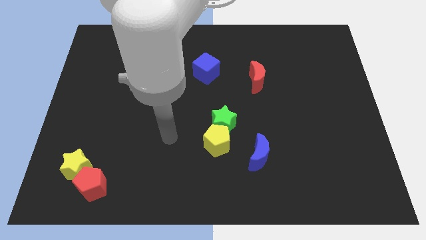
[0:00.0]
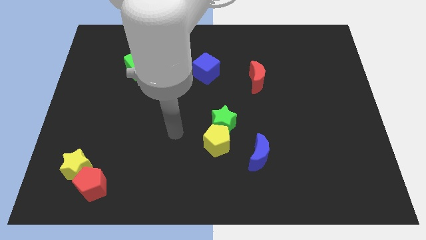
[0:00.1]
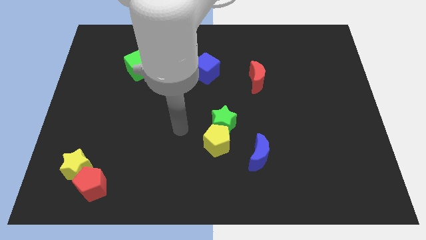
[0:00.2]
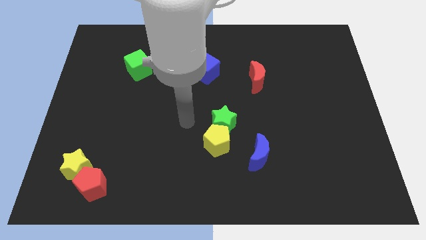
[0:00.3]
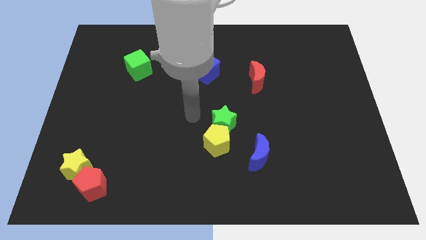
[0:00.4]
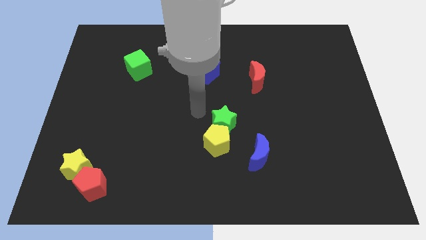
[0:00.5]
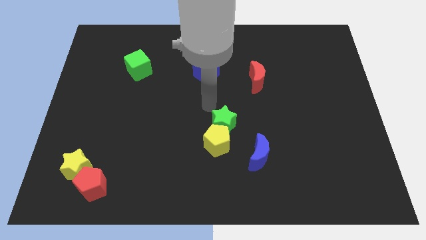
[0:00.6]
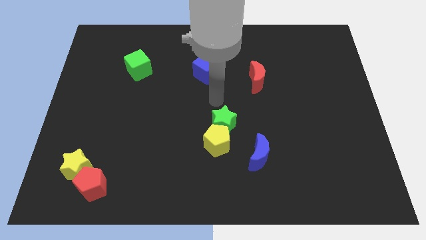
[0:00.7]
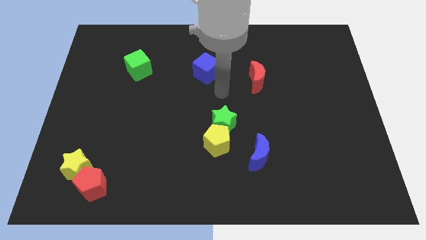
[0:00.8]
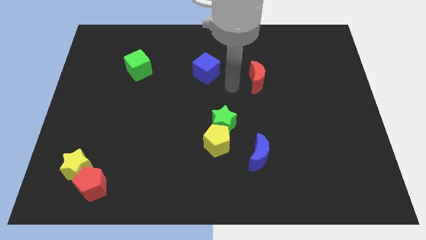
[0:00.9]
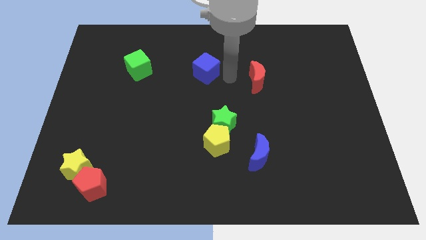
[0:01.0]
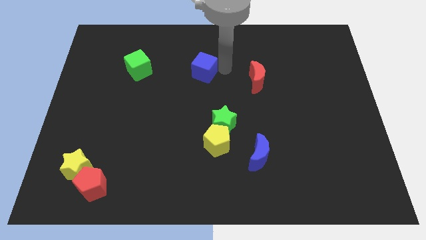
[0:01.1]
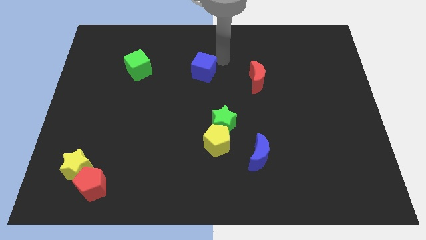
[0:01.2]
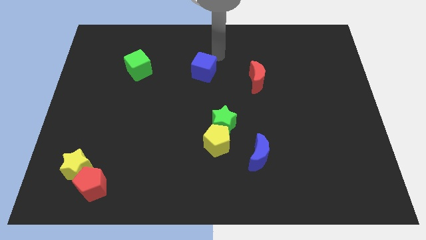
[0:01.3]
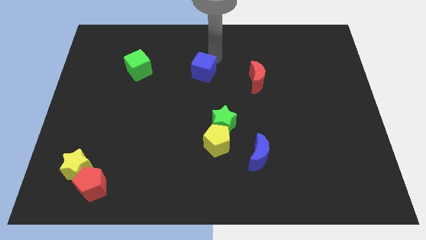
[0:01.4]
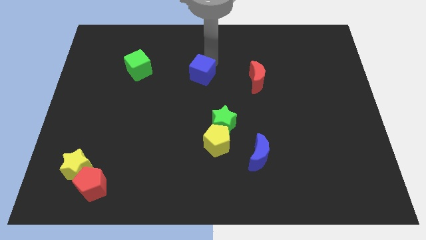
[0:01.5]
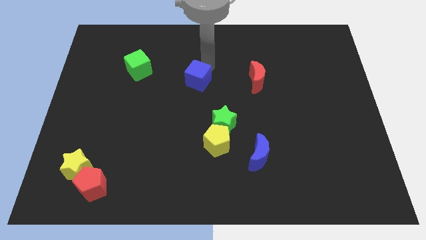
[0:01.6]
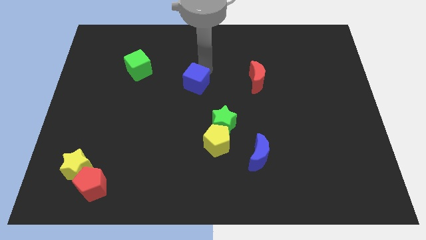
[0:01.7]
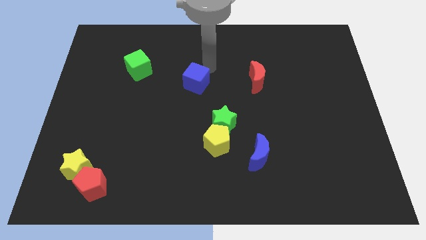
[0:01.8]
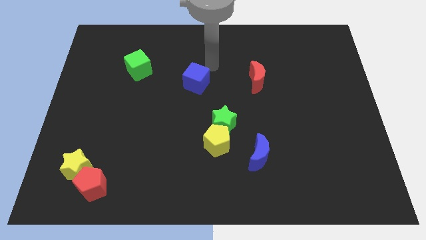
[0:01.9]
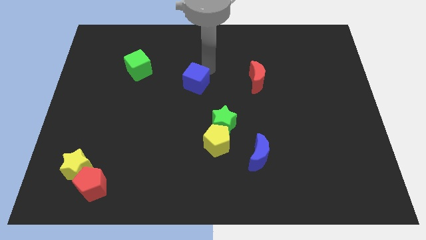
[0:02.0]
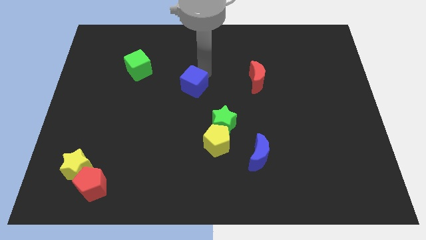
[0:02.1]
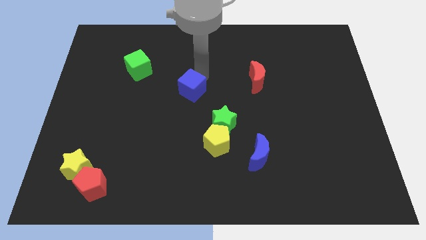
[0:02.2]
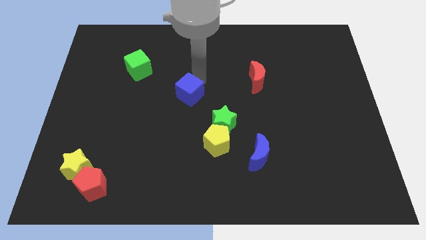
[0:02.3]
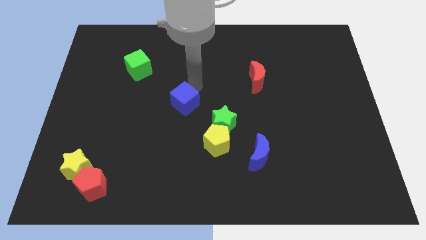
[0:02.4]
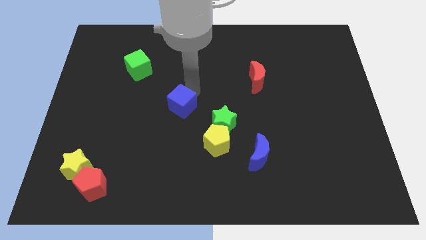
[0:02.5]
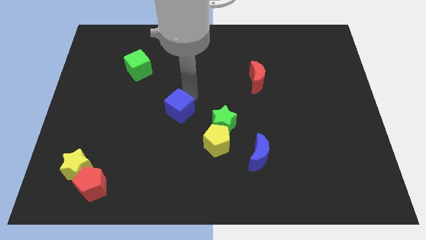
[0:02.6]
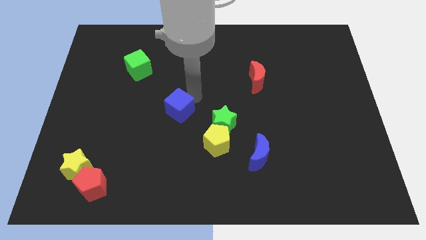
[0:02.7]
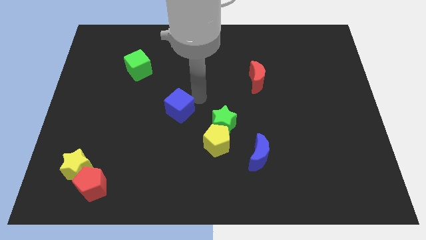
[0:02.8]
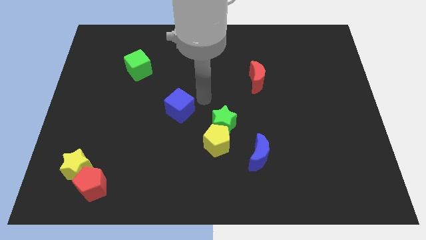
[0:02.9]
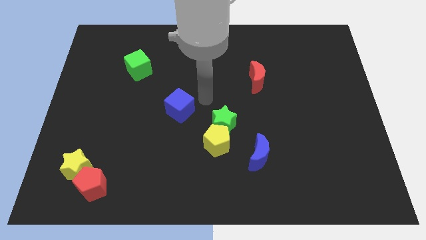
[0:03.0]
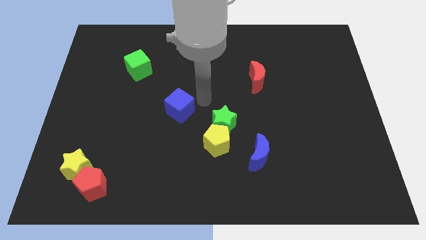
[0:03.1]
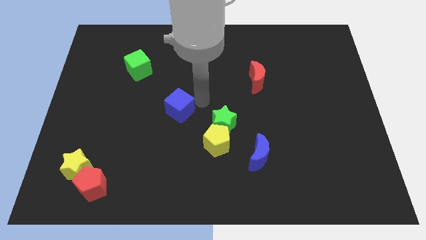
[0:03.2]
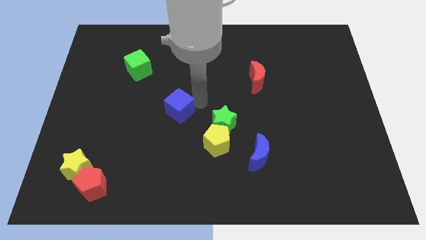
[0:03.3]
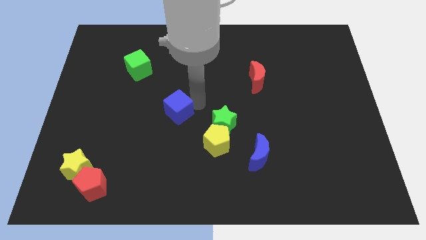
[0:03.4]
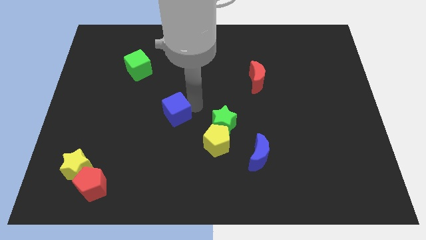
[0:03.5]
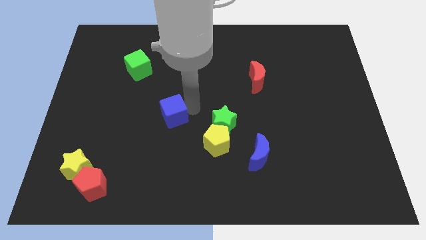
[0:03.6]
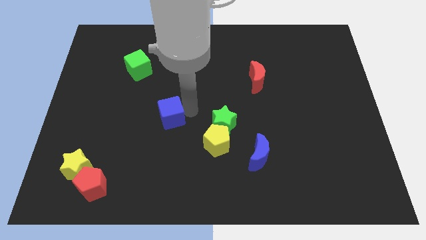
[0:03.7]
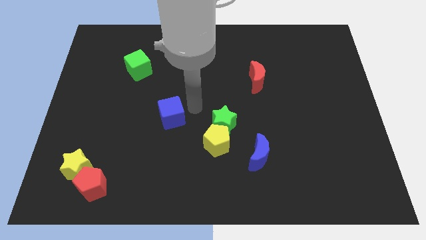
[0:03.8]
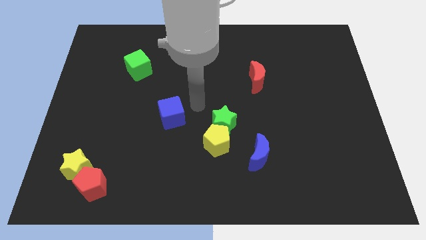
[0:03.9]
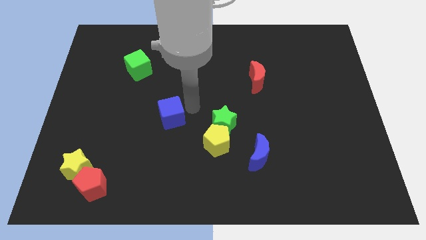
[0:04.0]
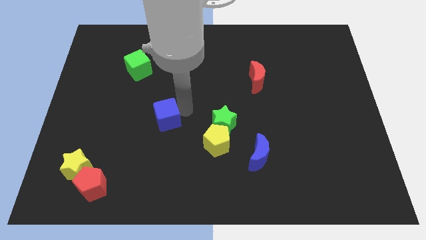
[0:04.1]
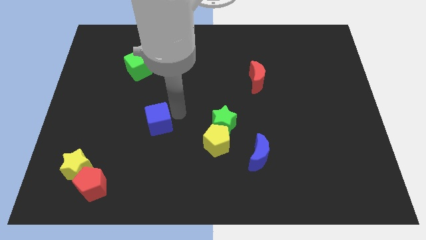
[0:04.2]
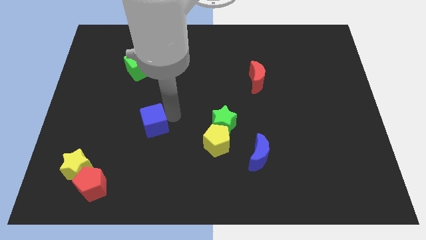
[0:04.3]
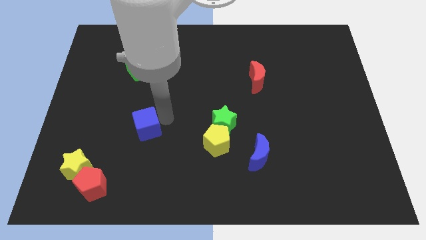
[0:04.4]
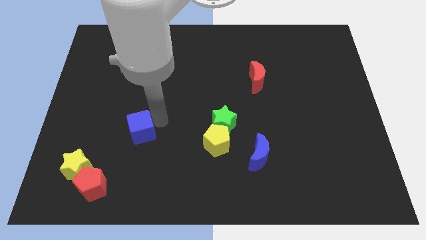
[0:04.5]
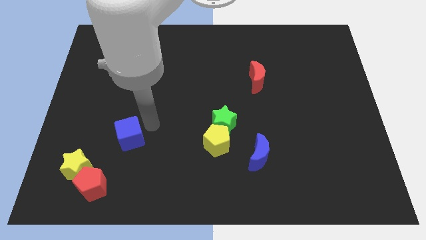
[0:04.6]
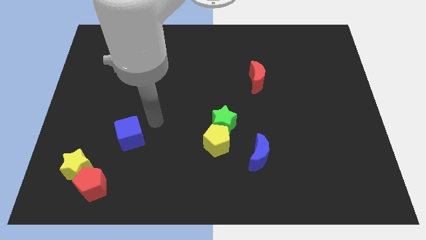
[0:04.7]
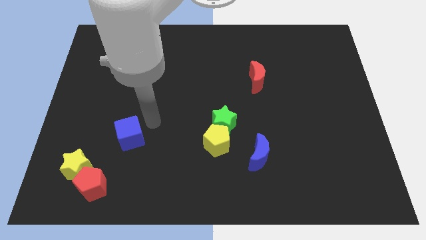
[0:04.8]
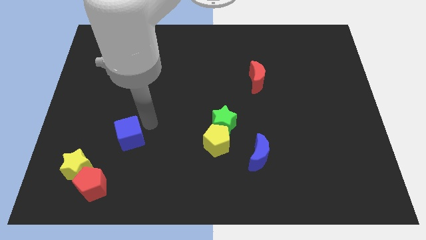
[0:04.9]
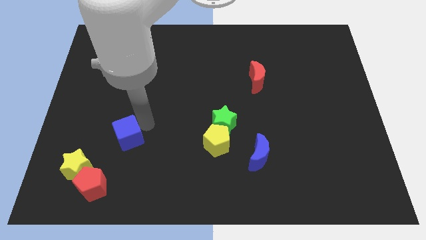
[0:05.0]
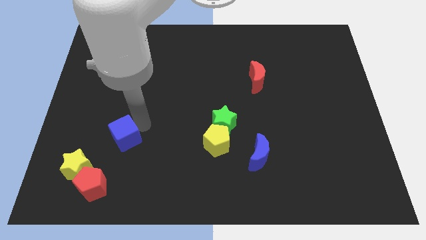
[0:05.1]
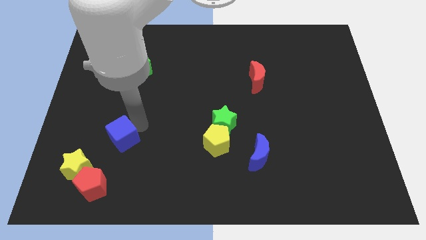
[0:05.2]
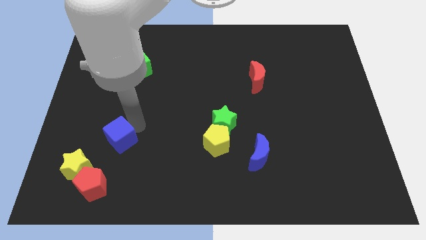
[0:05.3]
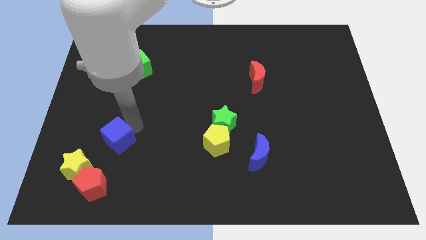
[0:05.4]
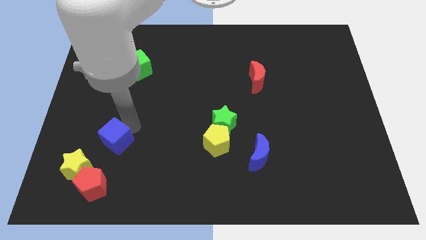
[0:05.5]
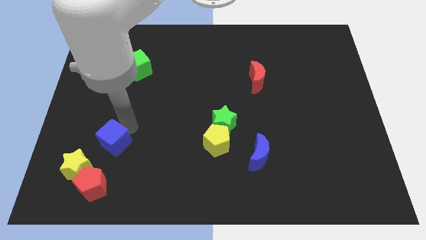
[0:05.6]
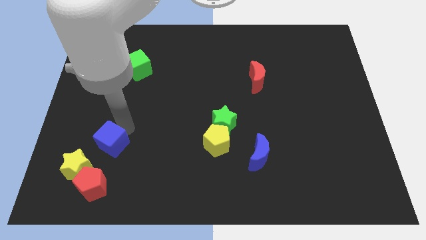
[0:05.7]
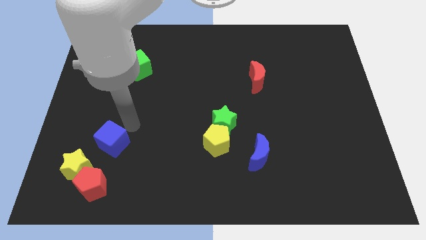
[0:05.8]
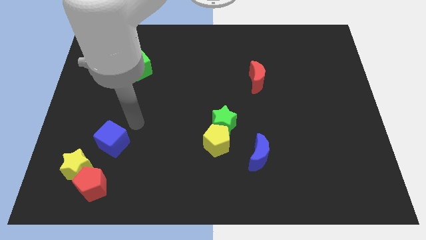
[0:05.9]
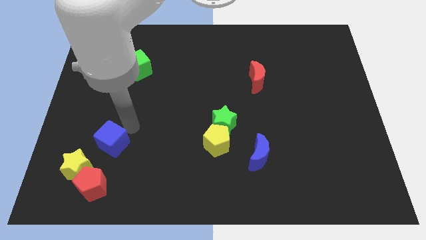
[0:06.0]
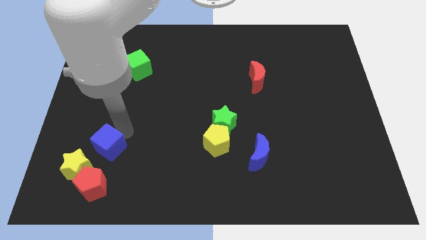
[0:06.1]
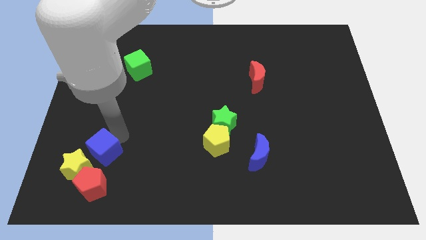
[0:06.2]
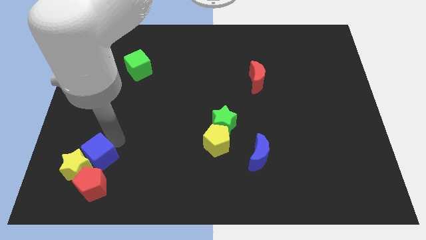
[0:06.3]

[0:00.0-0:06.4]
put the blue cube close to the yellow star

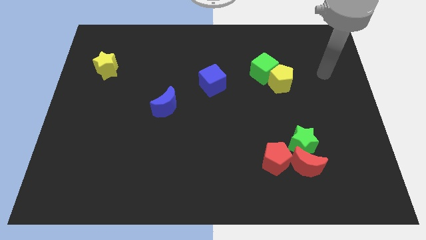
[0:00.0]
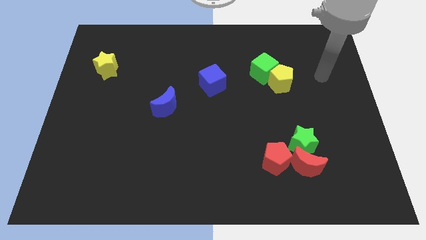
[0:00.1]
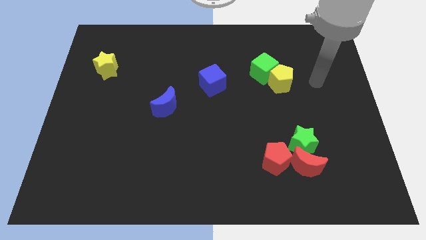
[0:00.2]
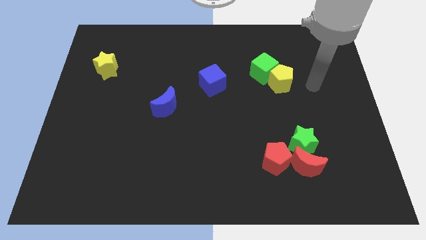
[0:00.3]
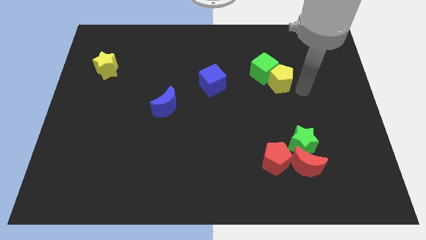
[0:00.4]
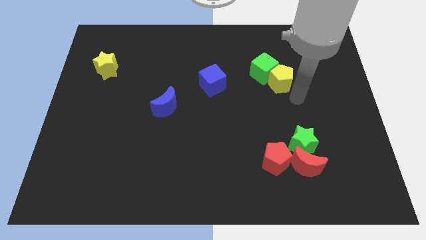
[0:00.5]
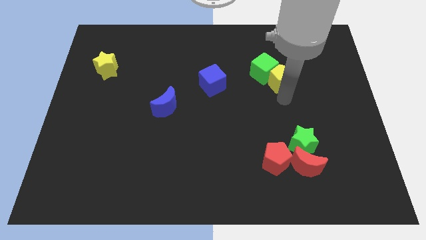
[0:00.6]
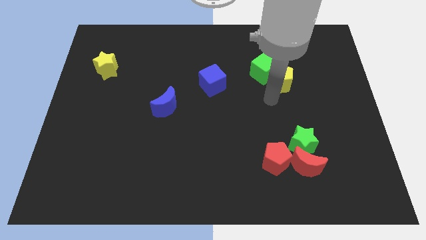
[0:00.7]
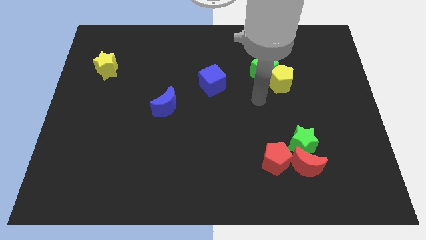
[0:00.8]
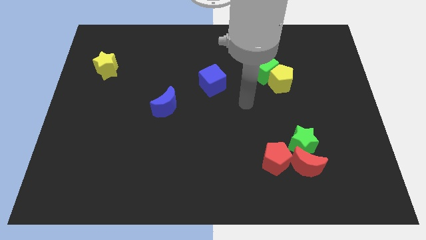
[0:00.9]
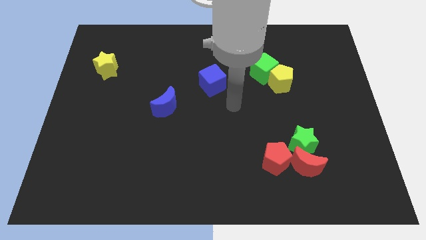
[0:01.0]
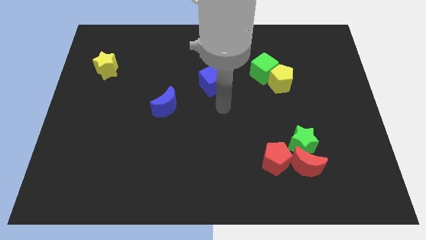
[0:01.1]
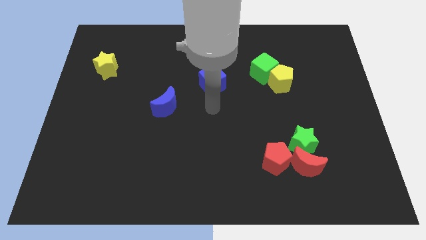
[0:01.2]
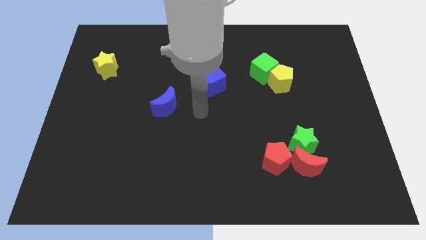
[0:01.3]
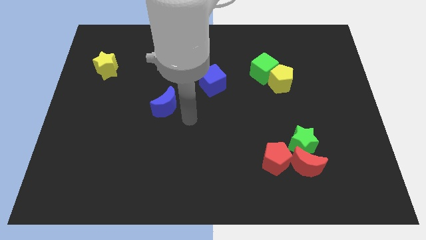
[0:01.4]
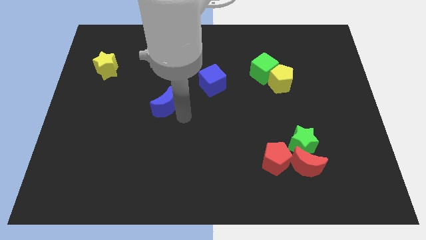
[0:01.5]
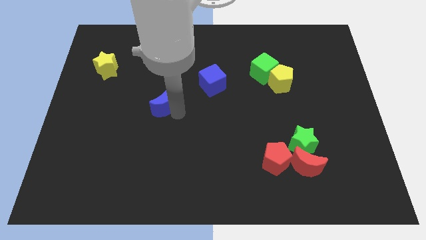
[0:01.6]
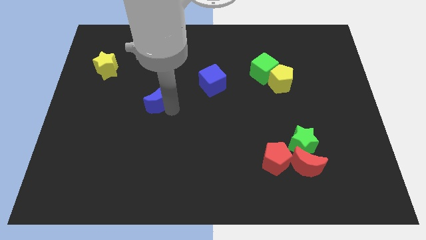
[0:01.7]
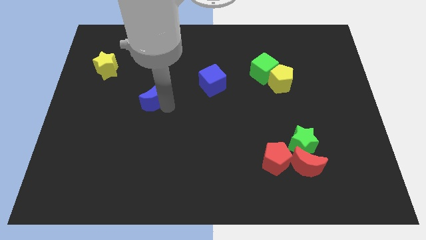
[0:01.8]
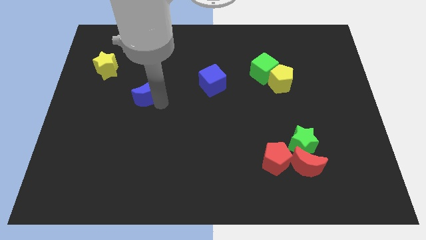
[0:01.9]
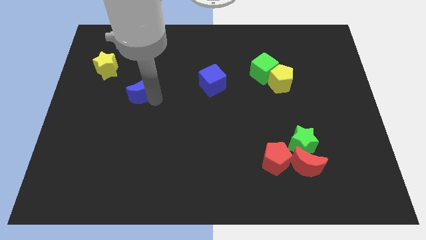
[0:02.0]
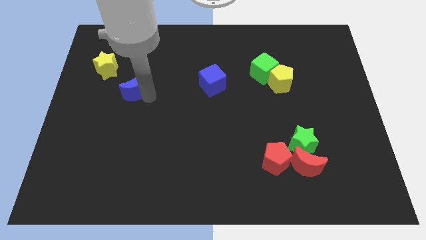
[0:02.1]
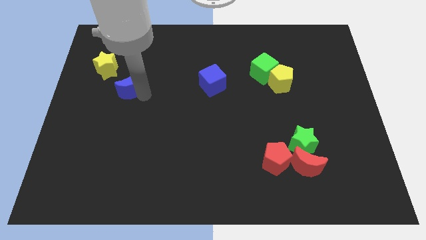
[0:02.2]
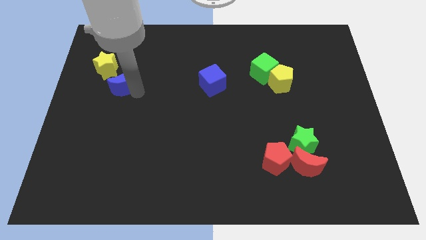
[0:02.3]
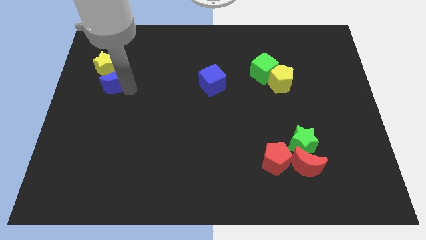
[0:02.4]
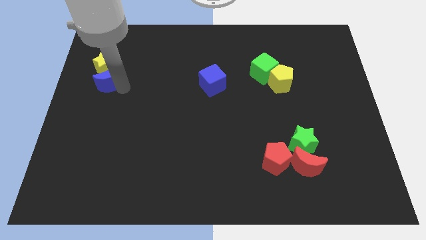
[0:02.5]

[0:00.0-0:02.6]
push the blue moon close to the yellow star
